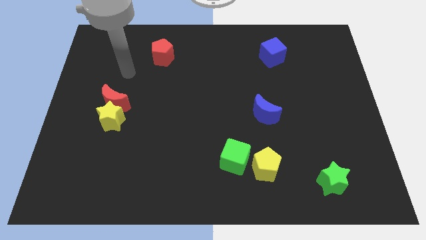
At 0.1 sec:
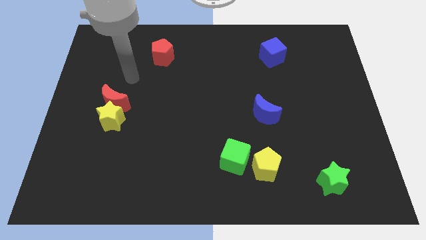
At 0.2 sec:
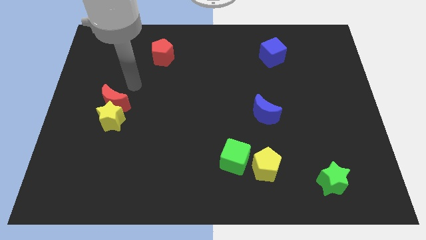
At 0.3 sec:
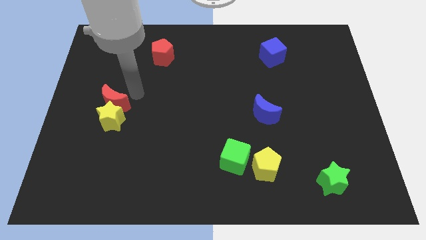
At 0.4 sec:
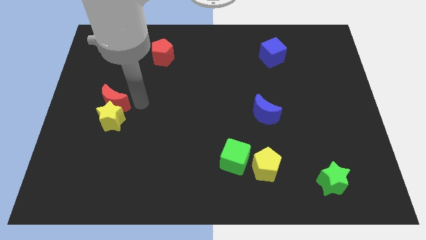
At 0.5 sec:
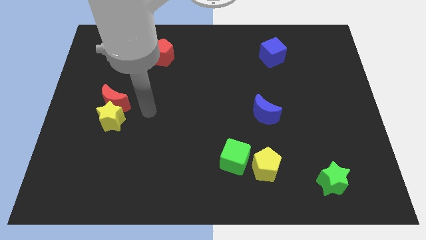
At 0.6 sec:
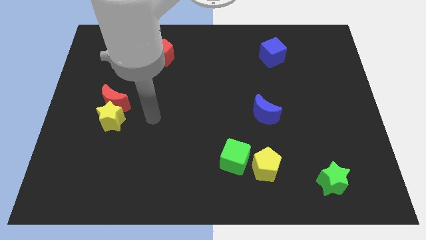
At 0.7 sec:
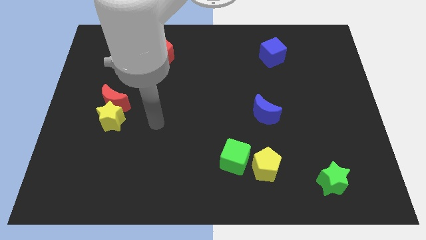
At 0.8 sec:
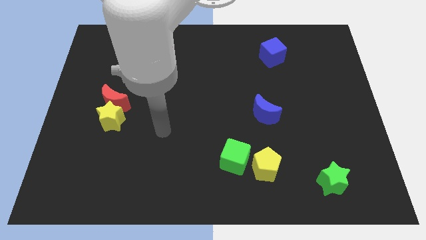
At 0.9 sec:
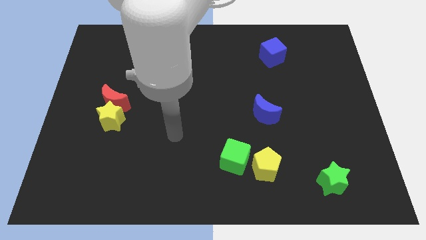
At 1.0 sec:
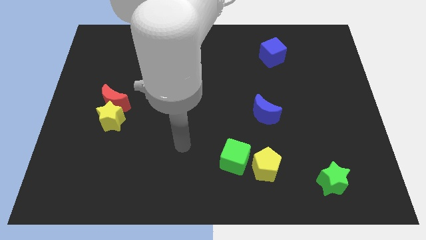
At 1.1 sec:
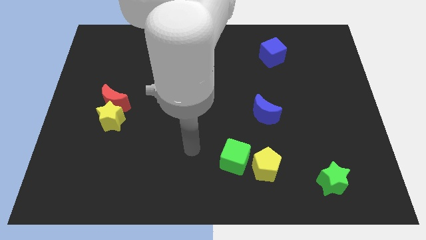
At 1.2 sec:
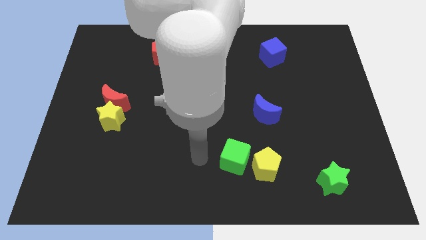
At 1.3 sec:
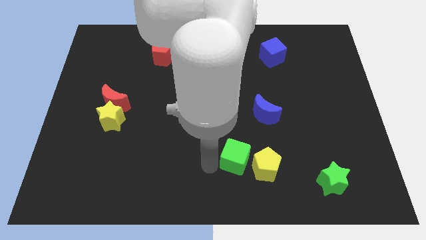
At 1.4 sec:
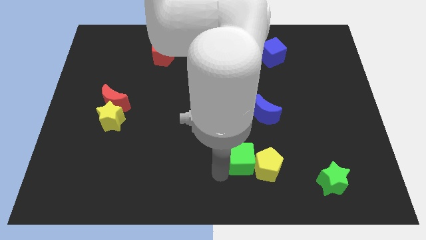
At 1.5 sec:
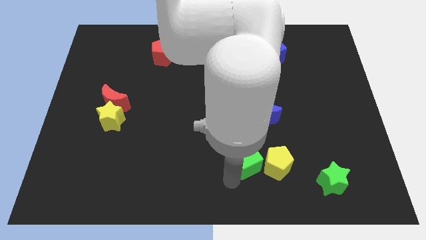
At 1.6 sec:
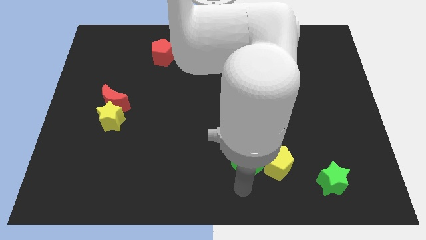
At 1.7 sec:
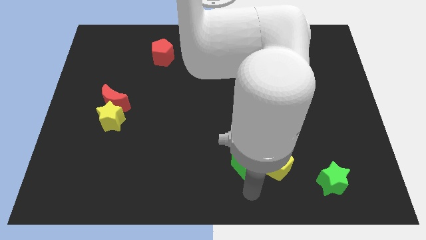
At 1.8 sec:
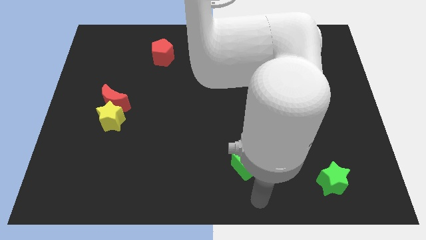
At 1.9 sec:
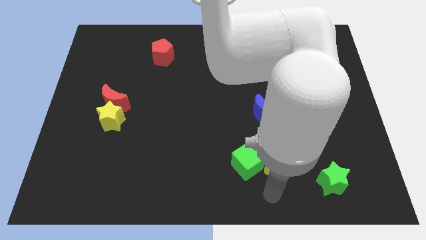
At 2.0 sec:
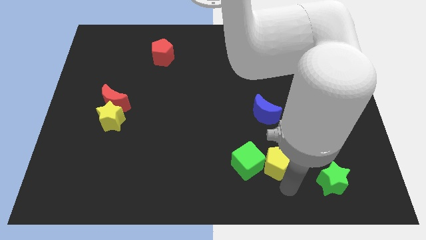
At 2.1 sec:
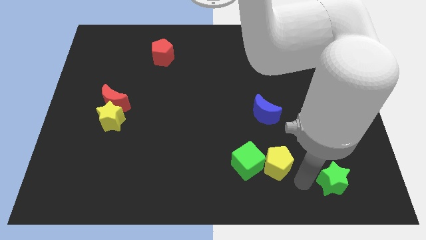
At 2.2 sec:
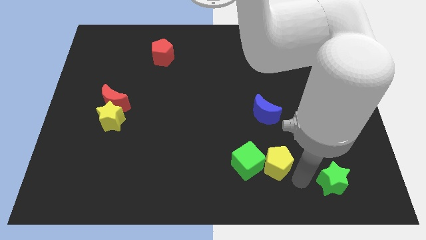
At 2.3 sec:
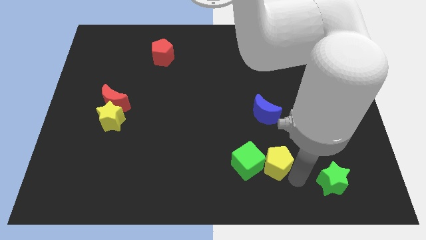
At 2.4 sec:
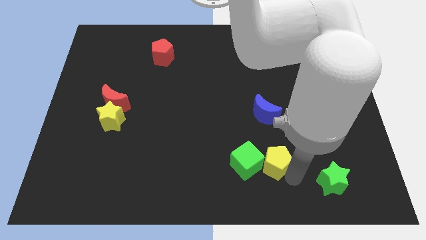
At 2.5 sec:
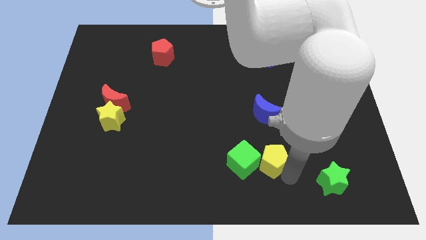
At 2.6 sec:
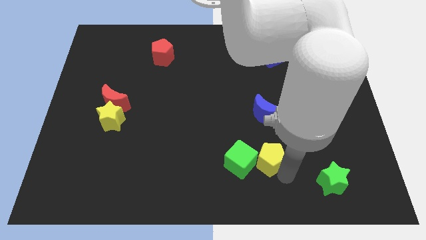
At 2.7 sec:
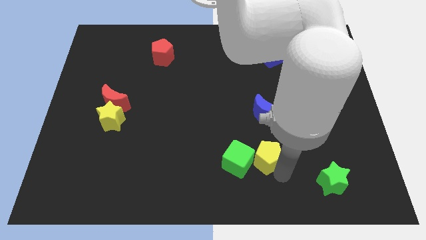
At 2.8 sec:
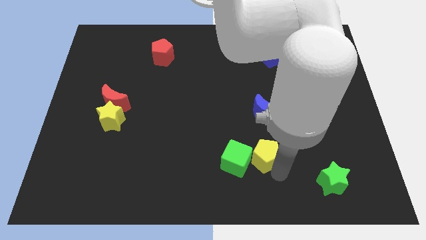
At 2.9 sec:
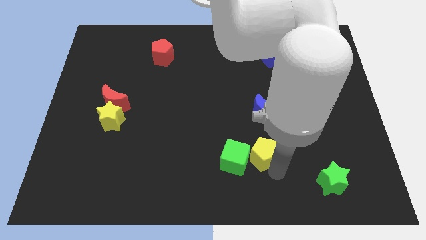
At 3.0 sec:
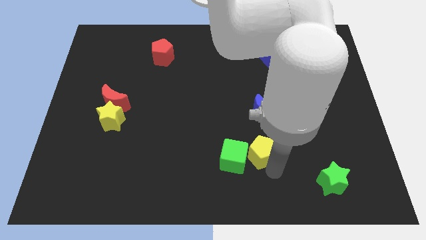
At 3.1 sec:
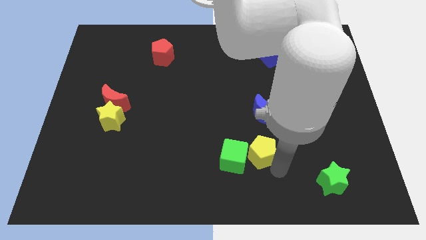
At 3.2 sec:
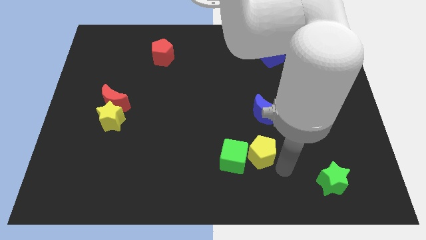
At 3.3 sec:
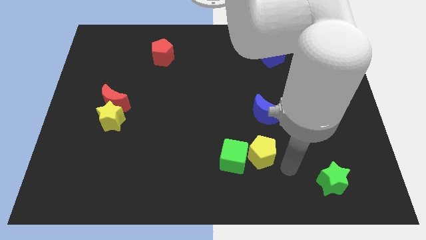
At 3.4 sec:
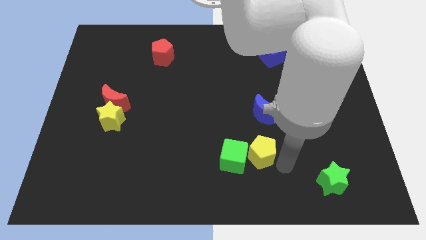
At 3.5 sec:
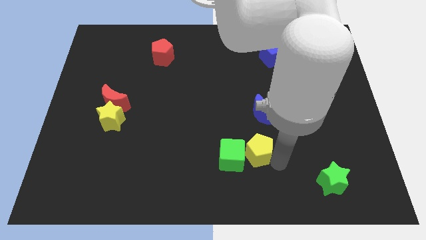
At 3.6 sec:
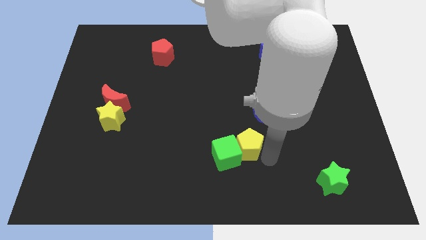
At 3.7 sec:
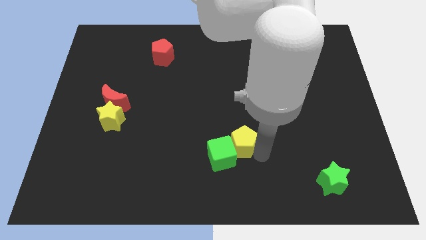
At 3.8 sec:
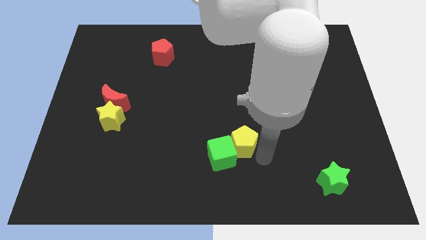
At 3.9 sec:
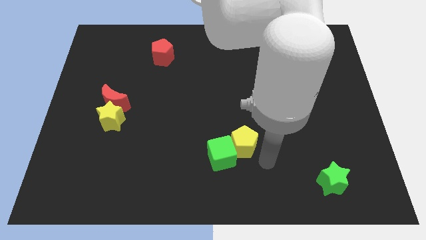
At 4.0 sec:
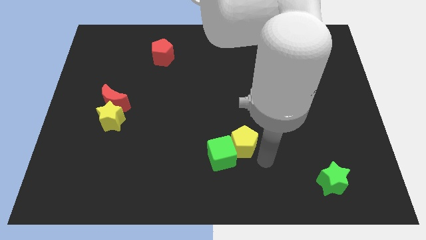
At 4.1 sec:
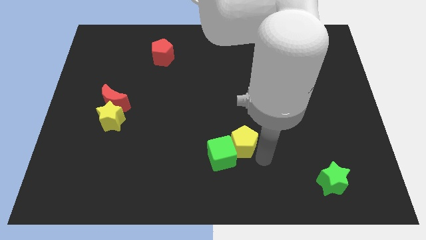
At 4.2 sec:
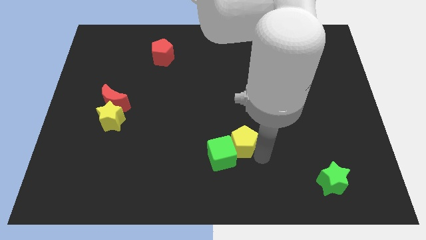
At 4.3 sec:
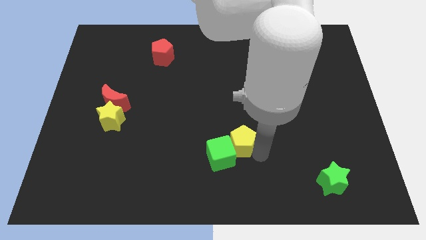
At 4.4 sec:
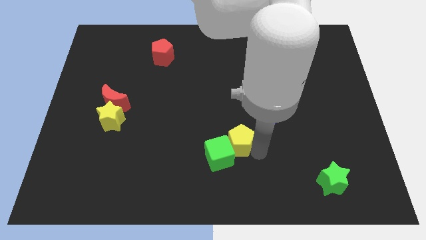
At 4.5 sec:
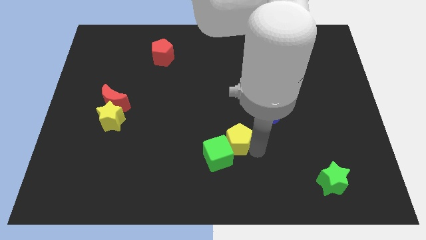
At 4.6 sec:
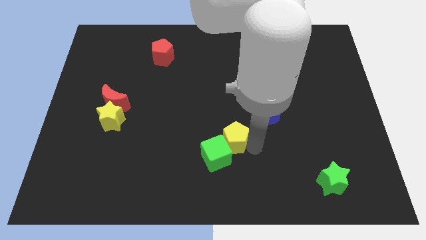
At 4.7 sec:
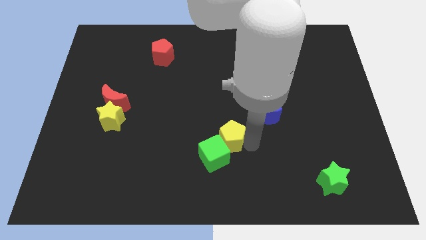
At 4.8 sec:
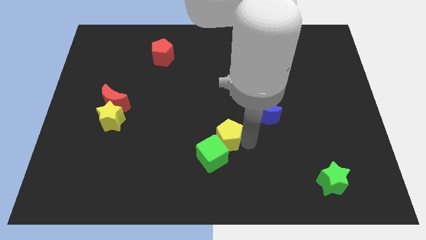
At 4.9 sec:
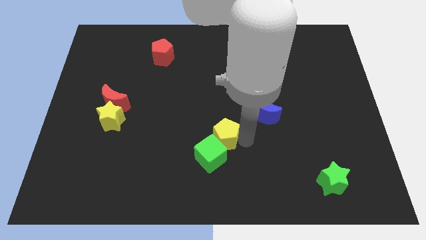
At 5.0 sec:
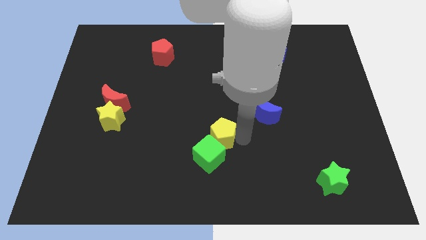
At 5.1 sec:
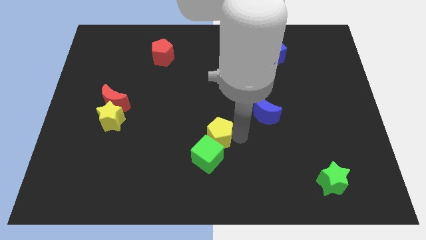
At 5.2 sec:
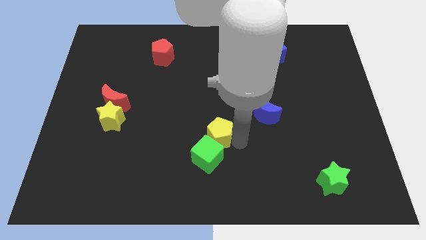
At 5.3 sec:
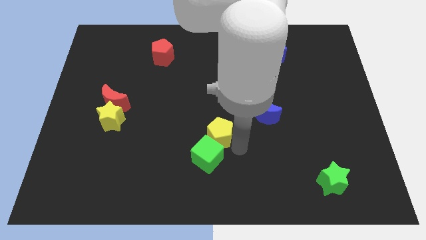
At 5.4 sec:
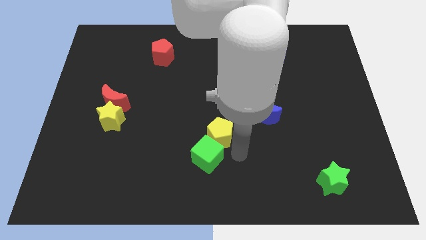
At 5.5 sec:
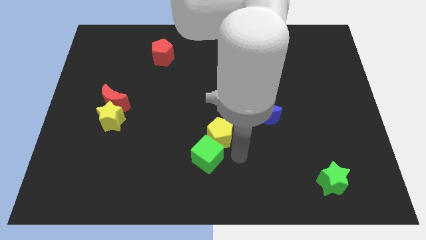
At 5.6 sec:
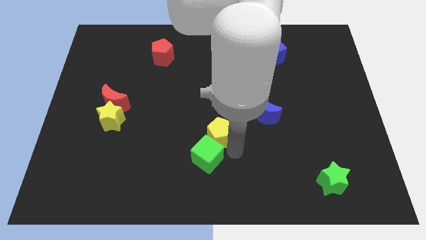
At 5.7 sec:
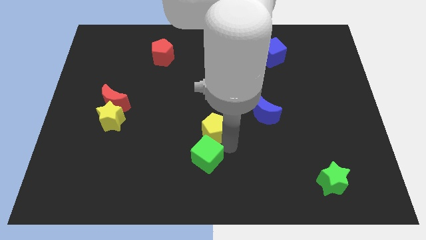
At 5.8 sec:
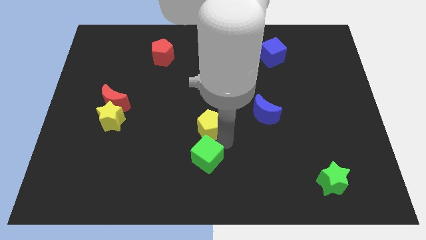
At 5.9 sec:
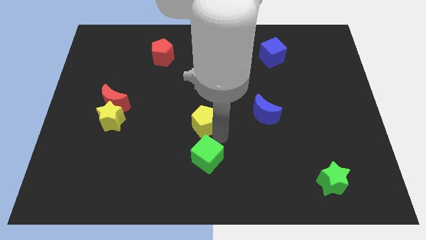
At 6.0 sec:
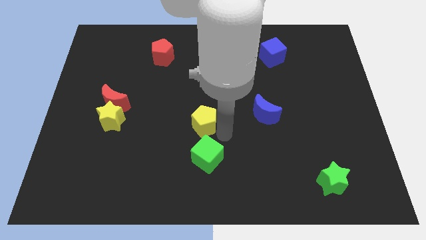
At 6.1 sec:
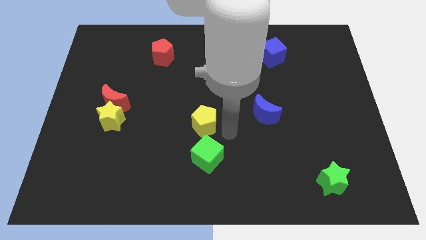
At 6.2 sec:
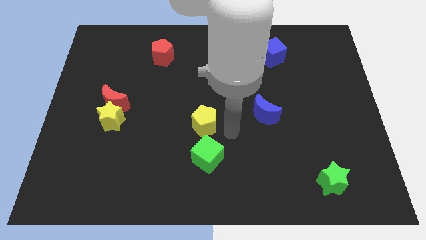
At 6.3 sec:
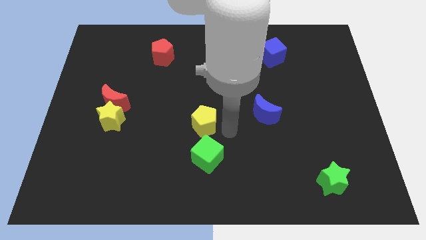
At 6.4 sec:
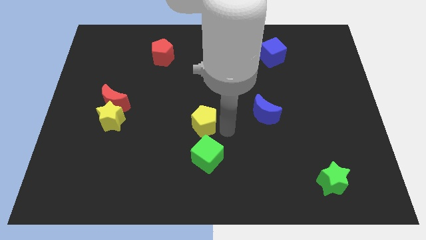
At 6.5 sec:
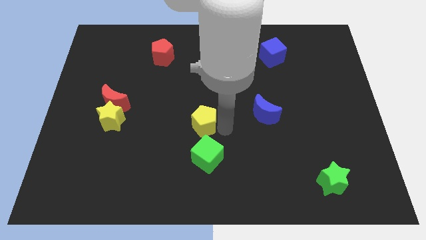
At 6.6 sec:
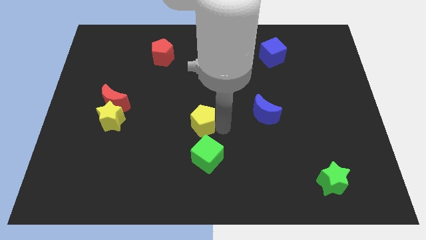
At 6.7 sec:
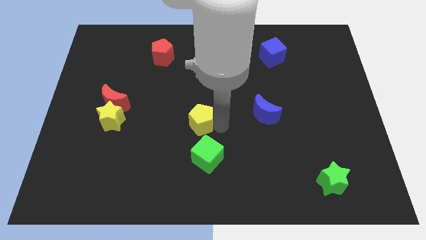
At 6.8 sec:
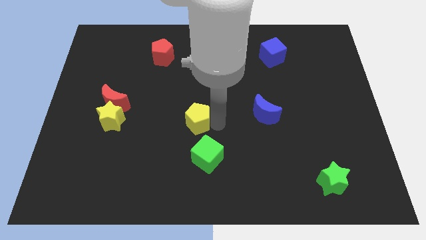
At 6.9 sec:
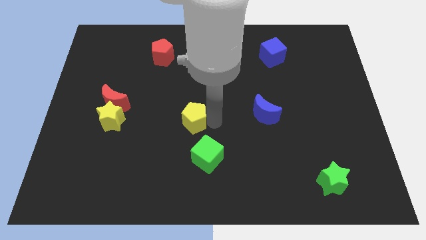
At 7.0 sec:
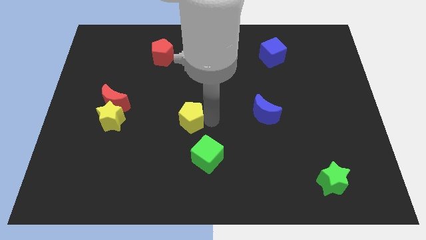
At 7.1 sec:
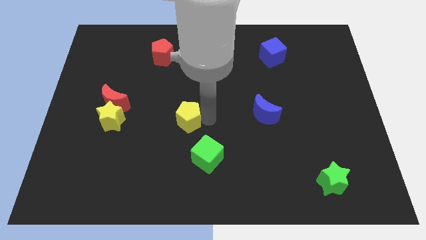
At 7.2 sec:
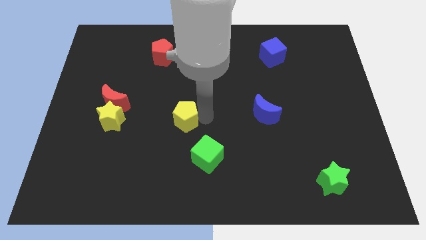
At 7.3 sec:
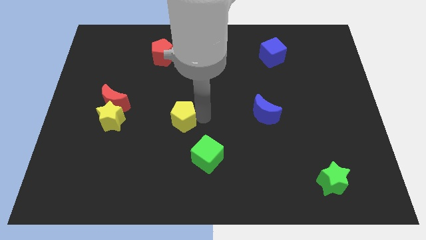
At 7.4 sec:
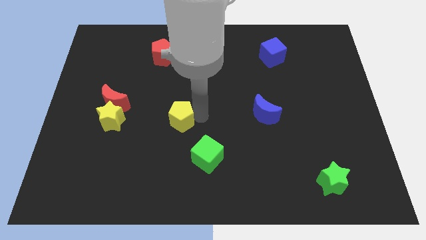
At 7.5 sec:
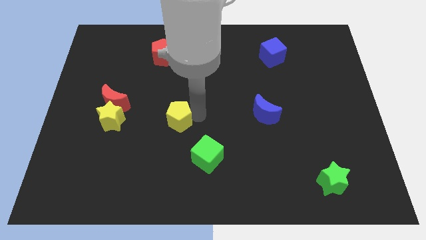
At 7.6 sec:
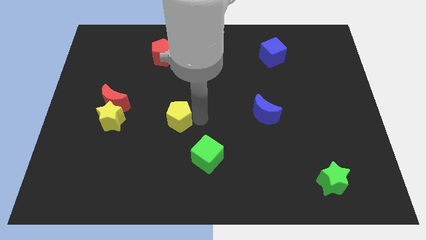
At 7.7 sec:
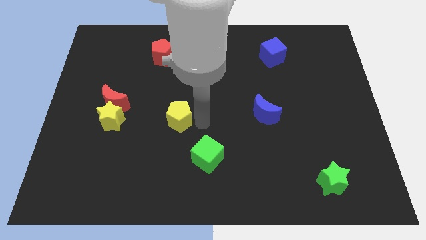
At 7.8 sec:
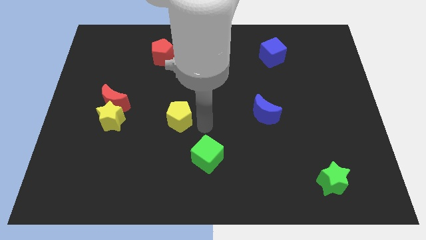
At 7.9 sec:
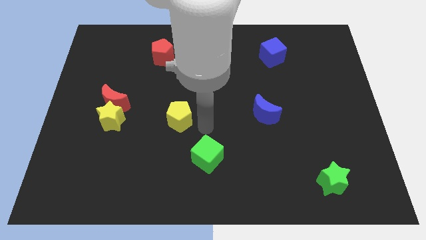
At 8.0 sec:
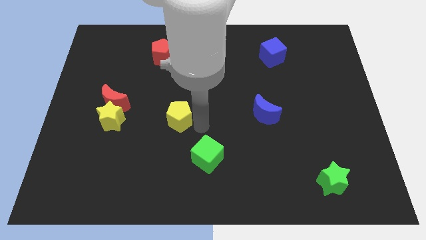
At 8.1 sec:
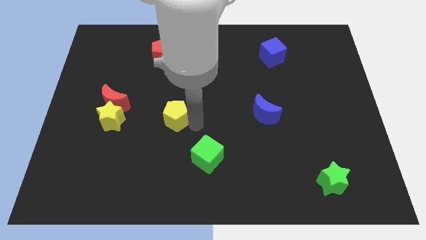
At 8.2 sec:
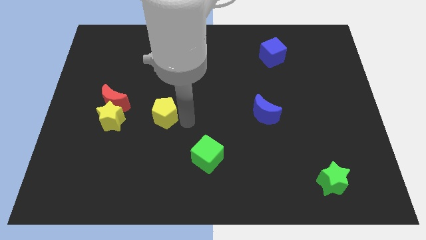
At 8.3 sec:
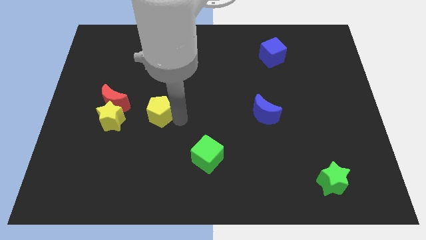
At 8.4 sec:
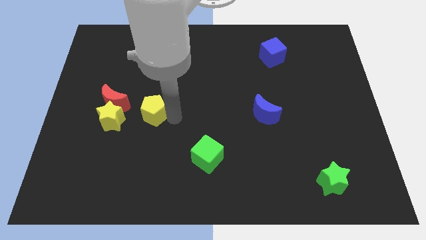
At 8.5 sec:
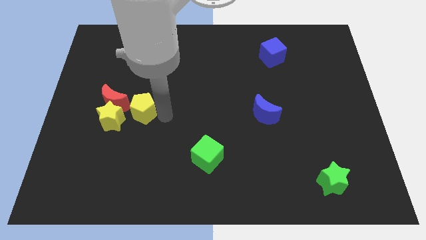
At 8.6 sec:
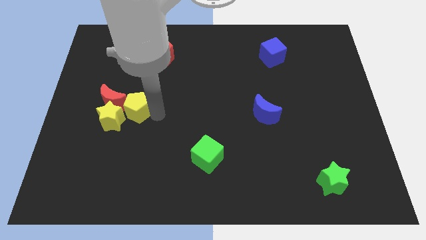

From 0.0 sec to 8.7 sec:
slide the yellow pentagon to the red moon
